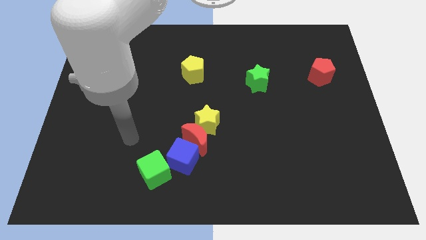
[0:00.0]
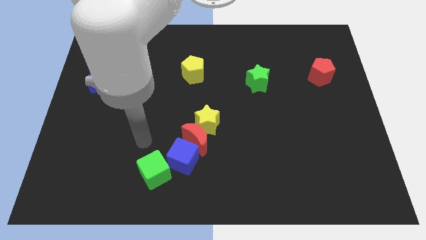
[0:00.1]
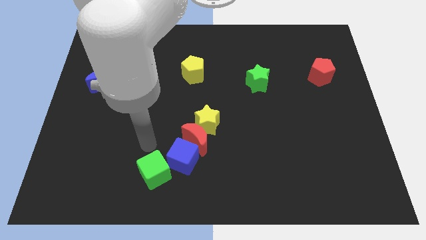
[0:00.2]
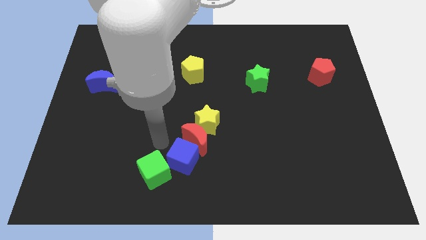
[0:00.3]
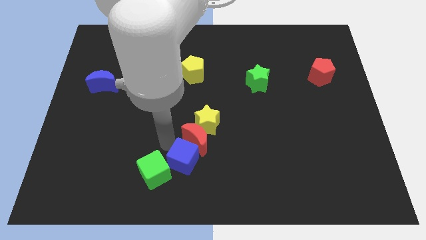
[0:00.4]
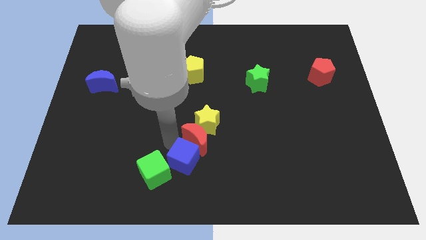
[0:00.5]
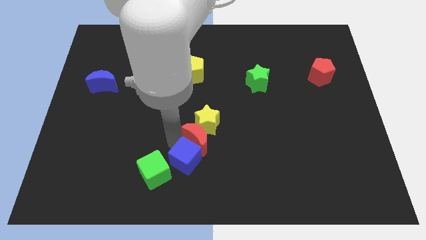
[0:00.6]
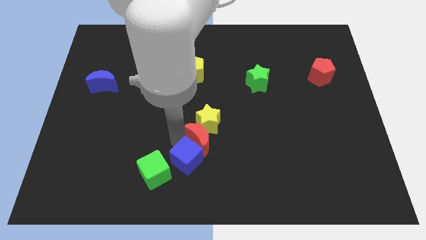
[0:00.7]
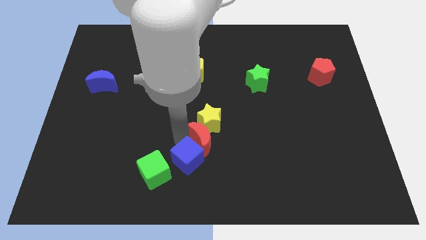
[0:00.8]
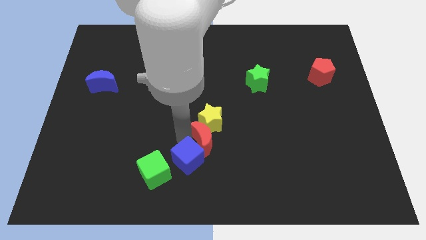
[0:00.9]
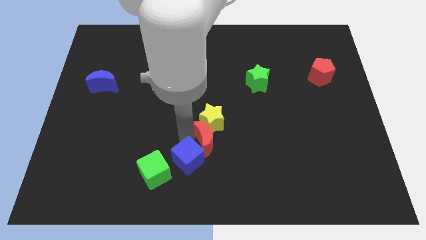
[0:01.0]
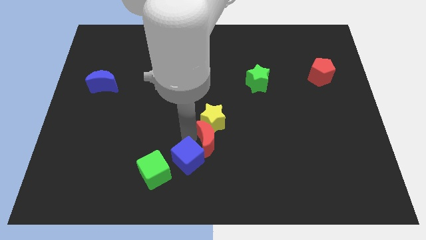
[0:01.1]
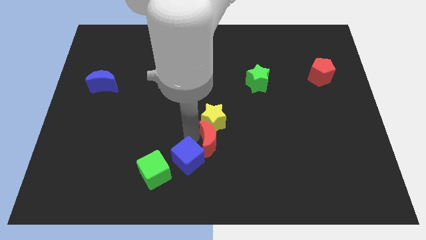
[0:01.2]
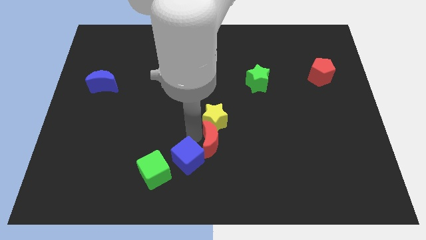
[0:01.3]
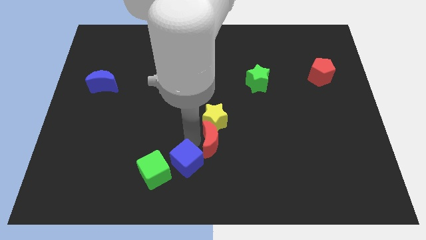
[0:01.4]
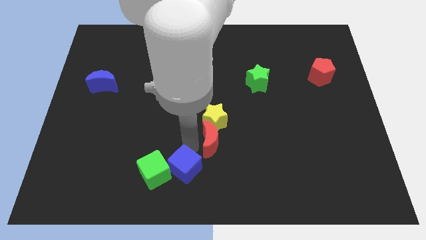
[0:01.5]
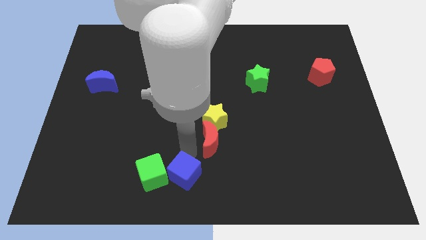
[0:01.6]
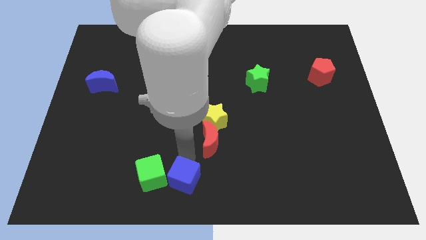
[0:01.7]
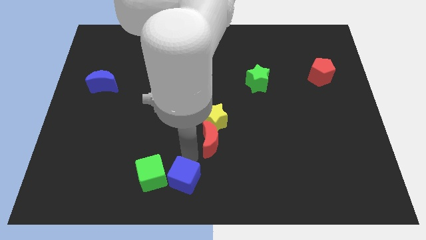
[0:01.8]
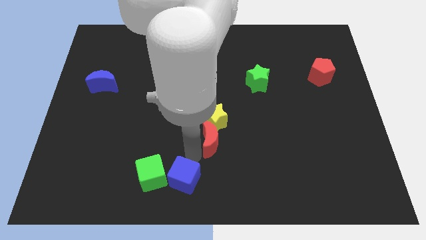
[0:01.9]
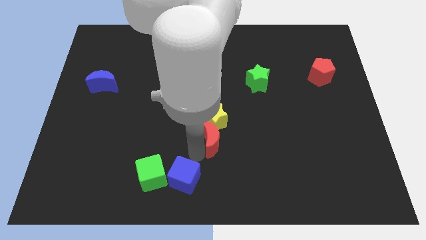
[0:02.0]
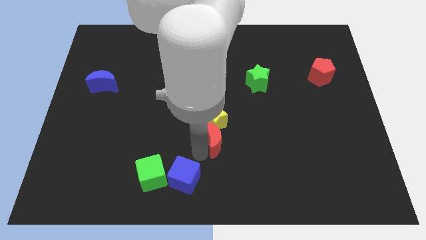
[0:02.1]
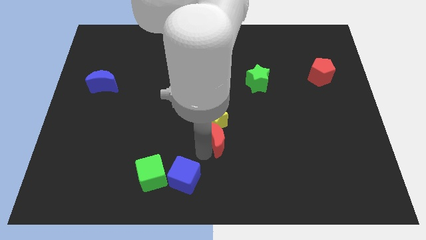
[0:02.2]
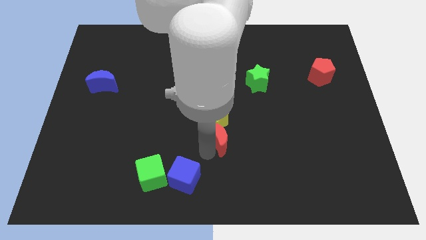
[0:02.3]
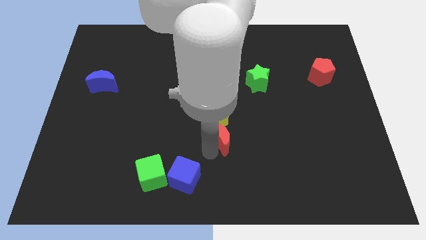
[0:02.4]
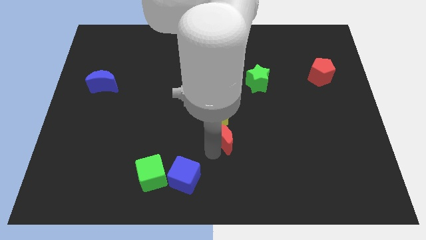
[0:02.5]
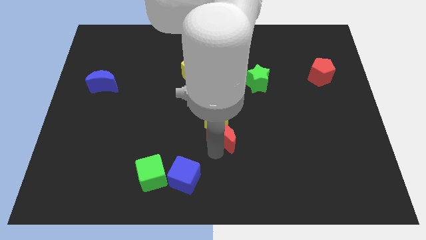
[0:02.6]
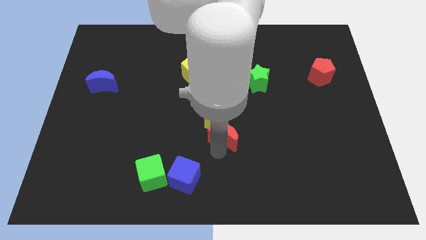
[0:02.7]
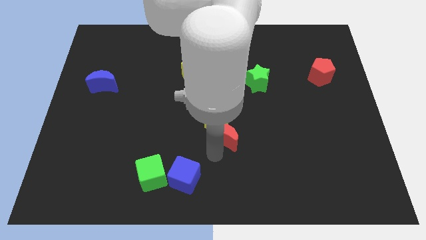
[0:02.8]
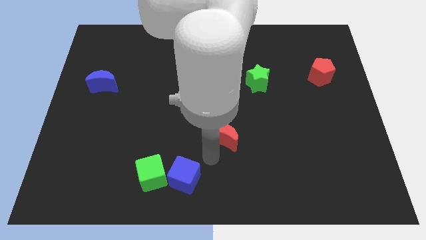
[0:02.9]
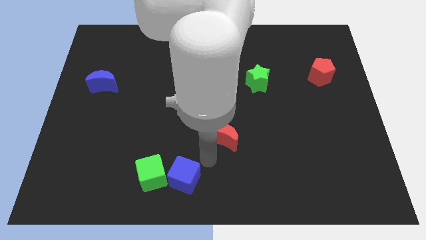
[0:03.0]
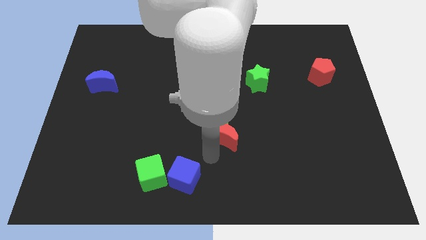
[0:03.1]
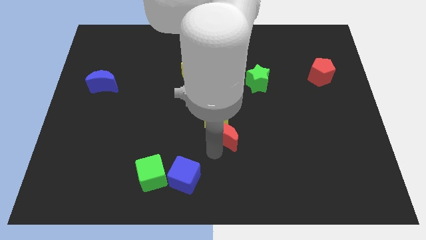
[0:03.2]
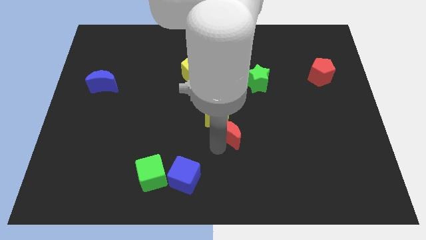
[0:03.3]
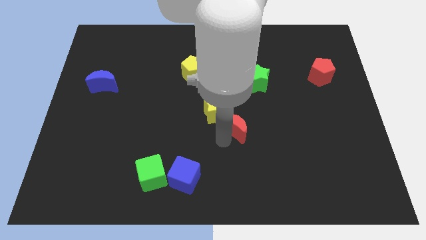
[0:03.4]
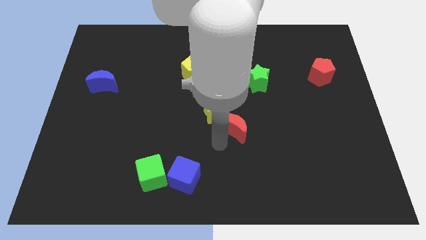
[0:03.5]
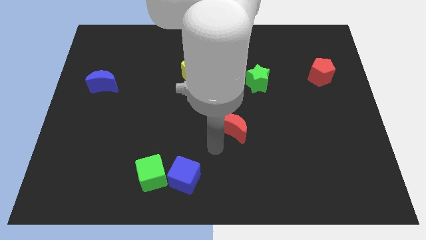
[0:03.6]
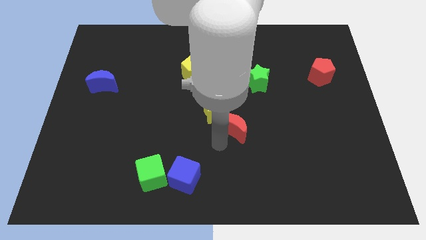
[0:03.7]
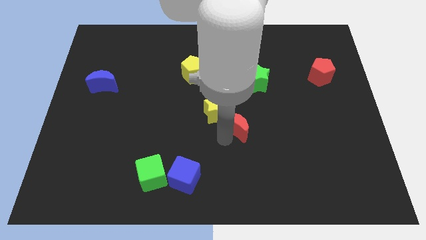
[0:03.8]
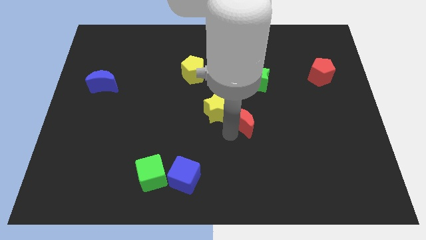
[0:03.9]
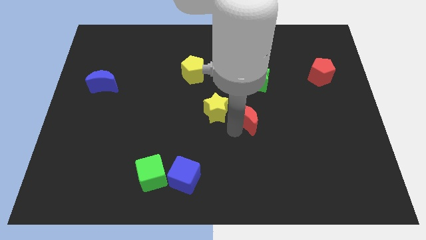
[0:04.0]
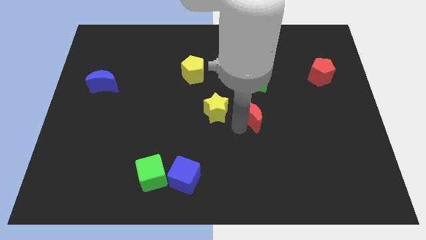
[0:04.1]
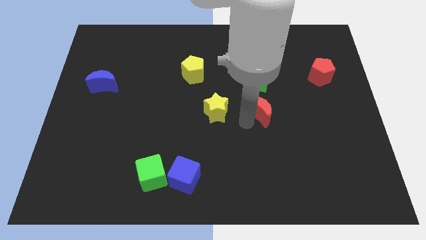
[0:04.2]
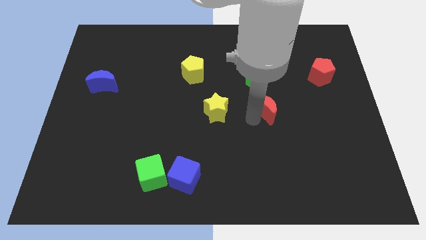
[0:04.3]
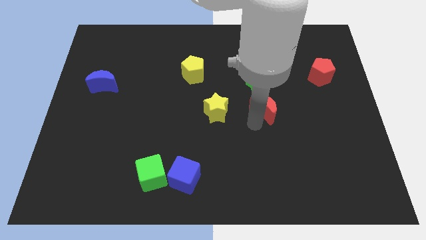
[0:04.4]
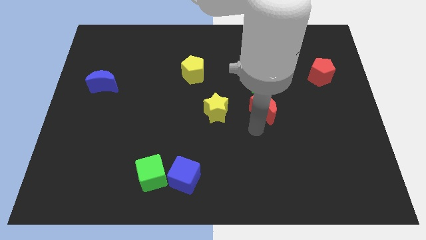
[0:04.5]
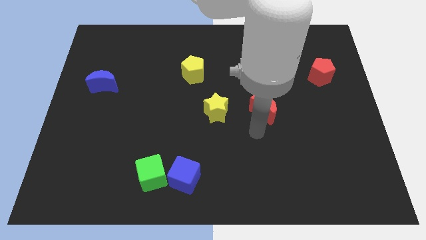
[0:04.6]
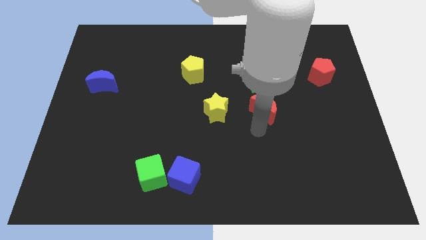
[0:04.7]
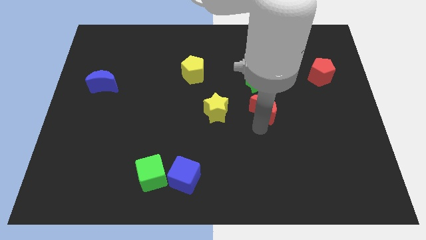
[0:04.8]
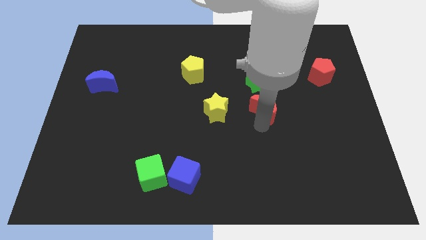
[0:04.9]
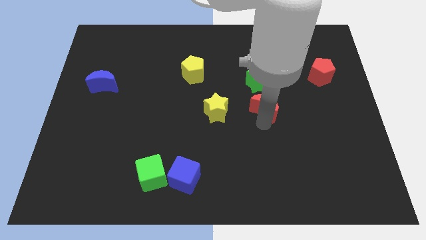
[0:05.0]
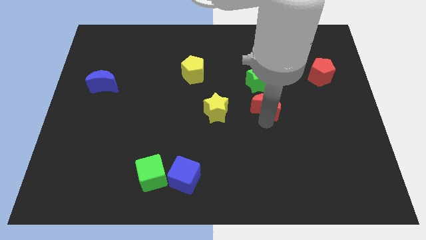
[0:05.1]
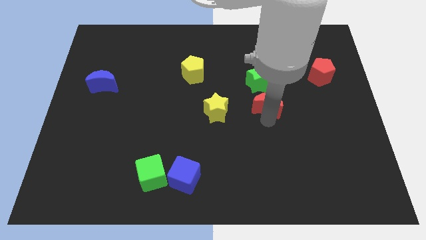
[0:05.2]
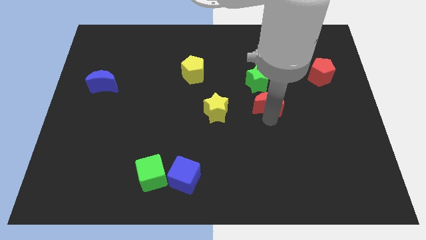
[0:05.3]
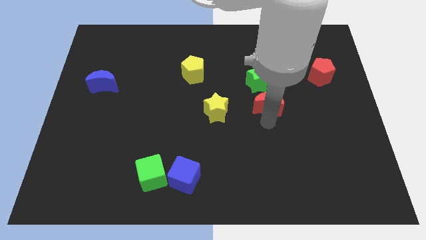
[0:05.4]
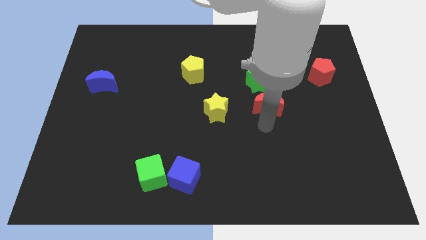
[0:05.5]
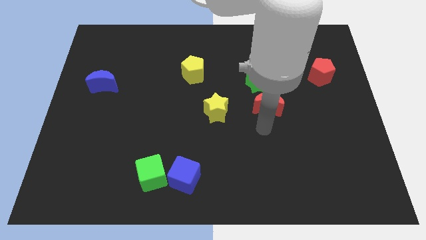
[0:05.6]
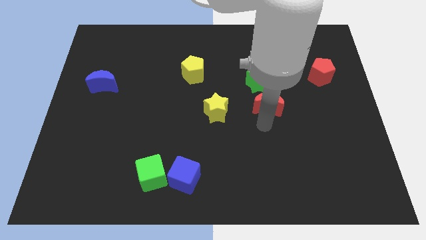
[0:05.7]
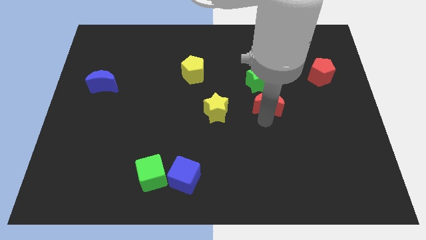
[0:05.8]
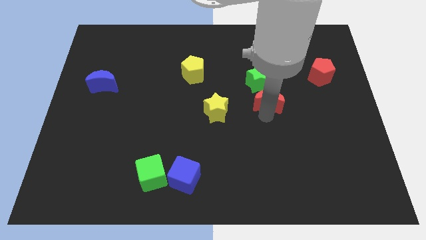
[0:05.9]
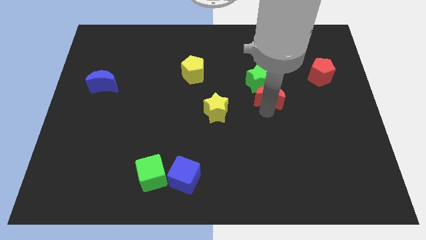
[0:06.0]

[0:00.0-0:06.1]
slide the red moon up and right

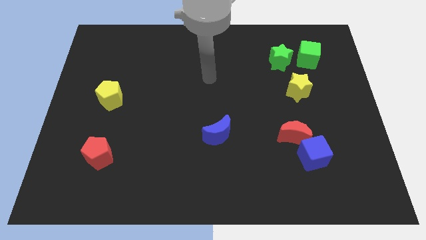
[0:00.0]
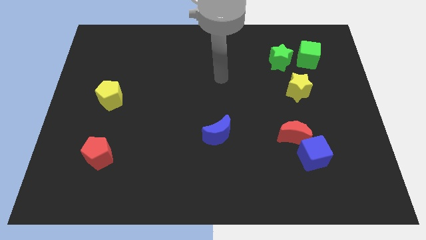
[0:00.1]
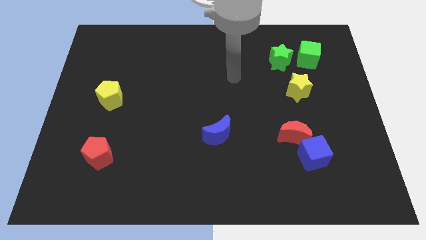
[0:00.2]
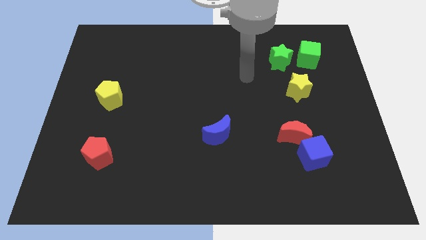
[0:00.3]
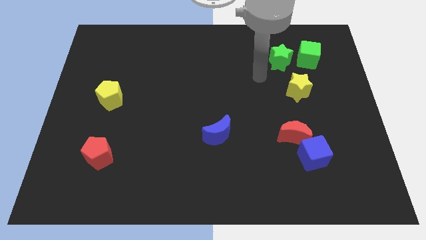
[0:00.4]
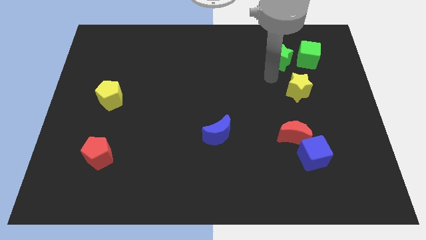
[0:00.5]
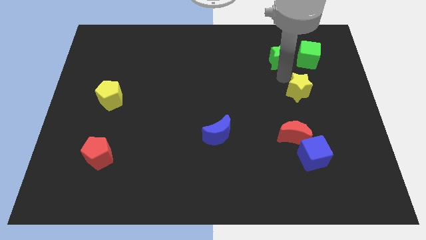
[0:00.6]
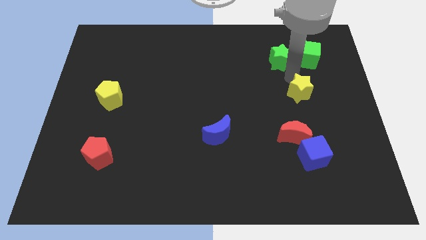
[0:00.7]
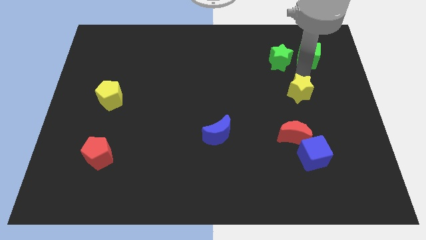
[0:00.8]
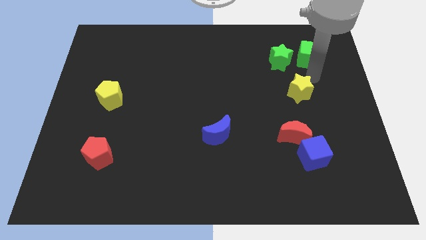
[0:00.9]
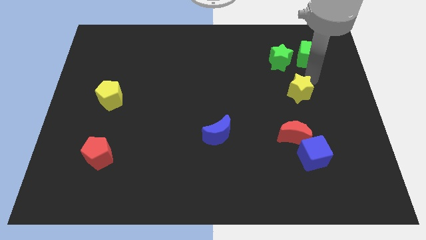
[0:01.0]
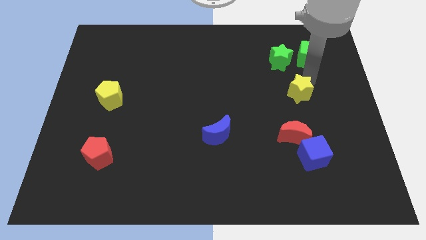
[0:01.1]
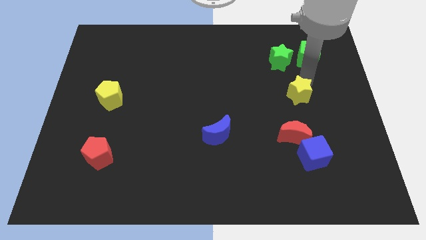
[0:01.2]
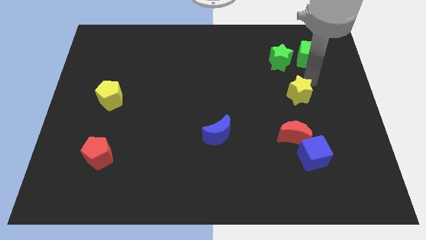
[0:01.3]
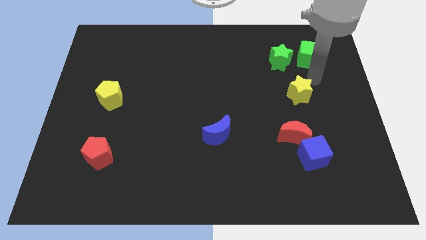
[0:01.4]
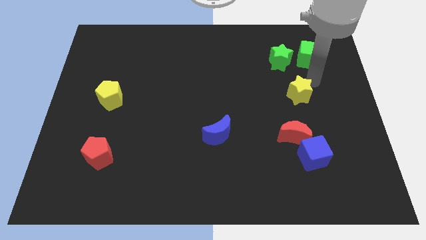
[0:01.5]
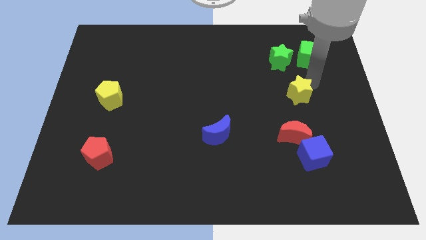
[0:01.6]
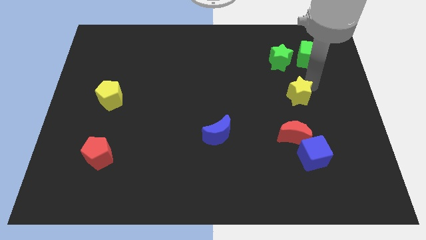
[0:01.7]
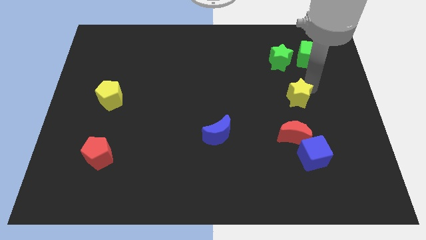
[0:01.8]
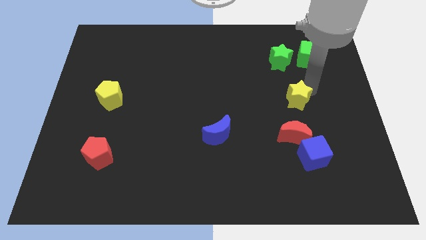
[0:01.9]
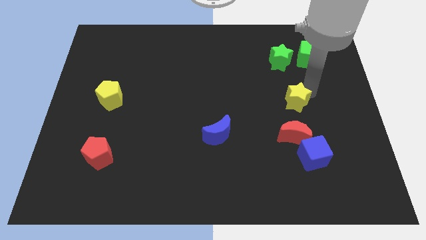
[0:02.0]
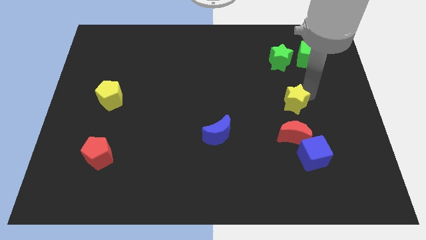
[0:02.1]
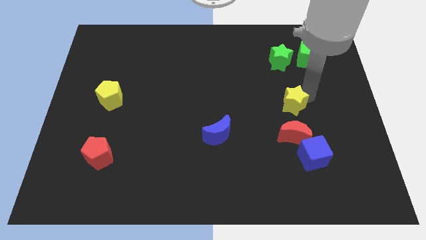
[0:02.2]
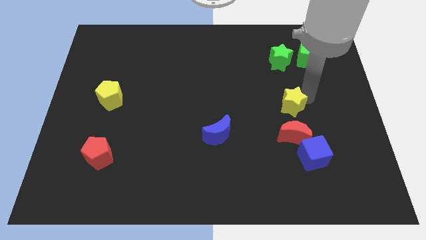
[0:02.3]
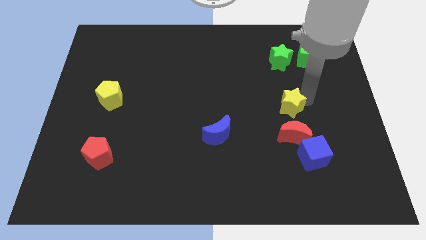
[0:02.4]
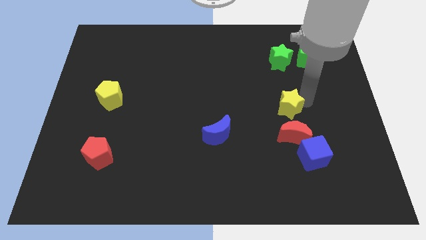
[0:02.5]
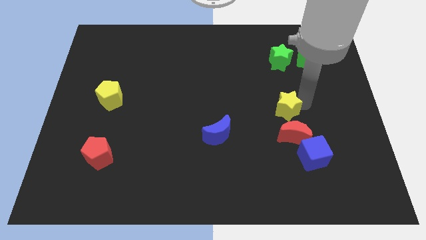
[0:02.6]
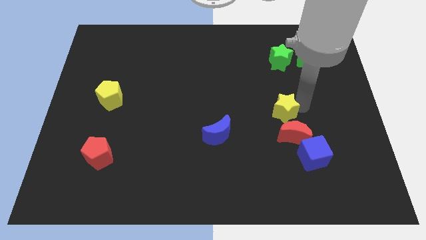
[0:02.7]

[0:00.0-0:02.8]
slide the yellow star down and left somewhat
